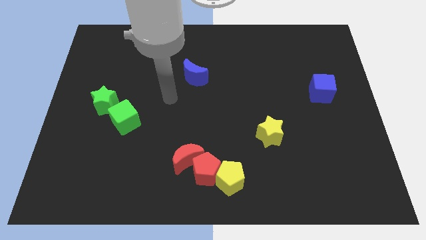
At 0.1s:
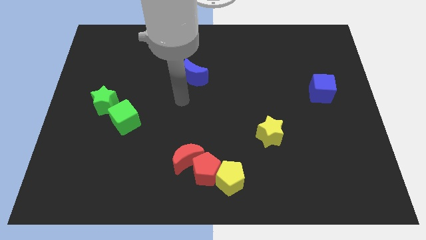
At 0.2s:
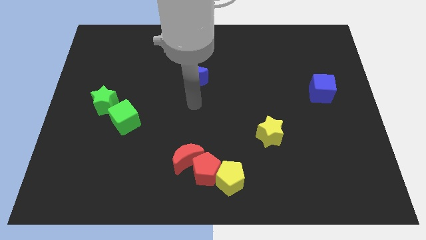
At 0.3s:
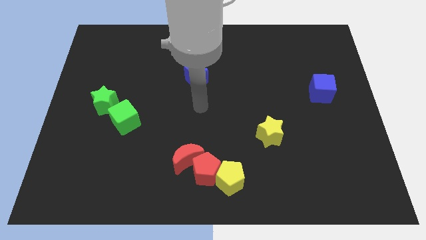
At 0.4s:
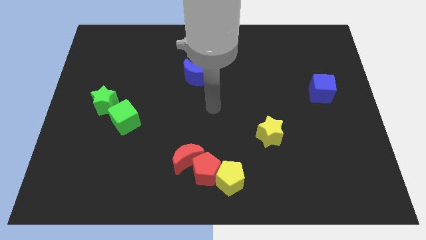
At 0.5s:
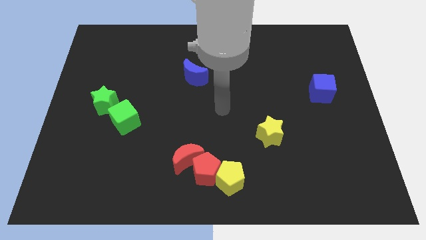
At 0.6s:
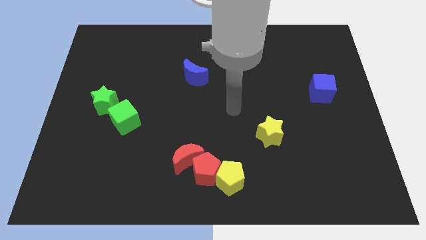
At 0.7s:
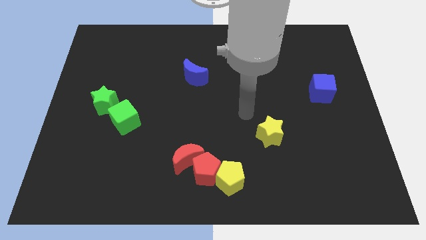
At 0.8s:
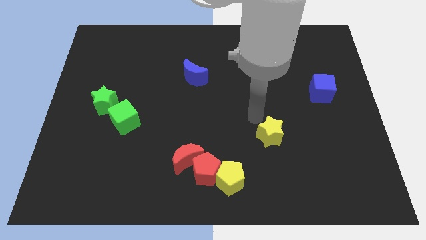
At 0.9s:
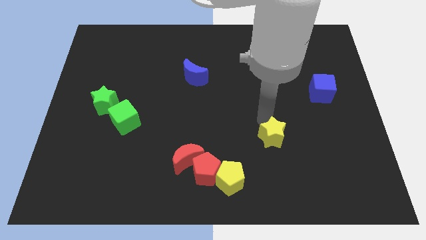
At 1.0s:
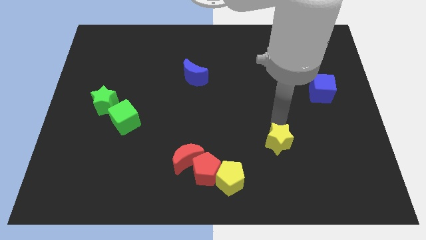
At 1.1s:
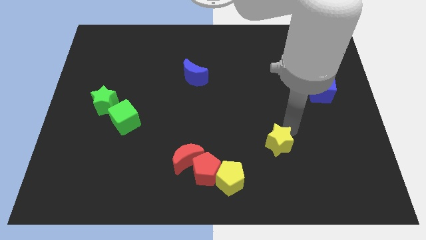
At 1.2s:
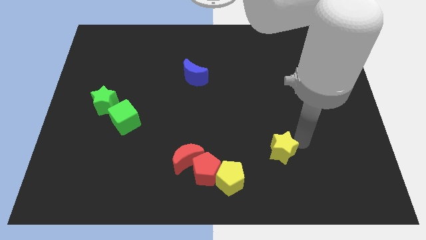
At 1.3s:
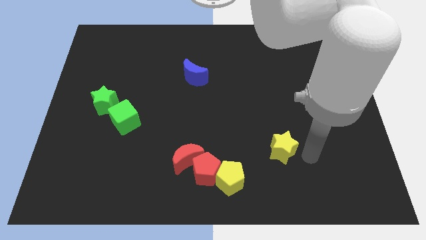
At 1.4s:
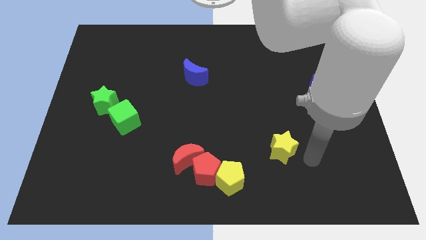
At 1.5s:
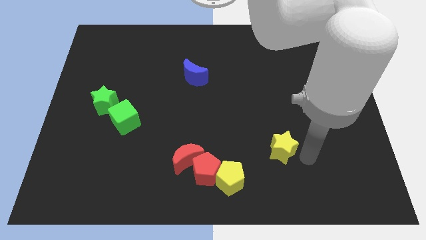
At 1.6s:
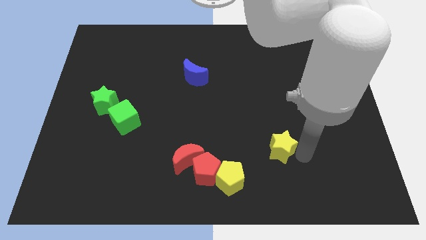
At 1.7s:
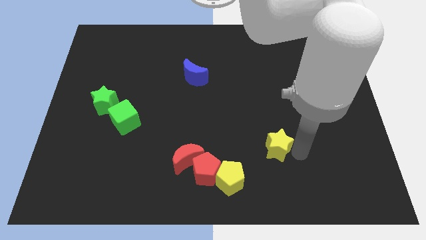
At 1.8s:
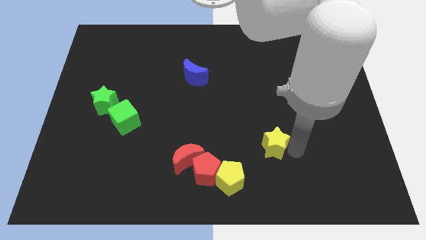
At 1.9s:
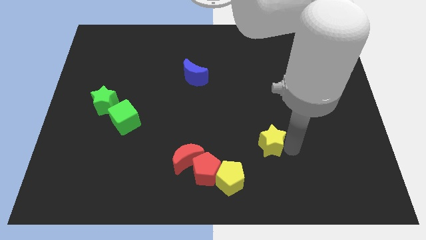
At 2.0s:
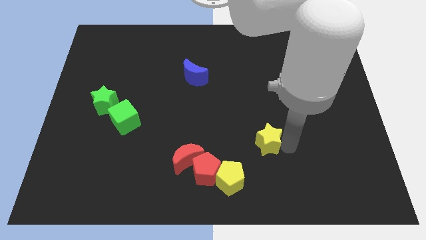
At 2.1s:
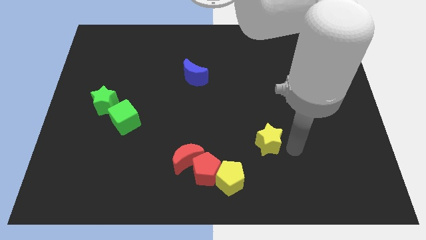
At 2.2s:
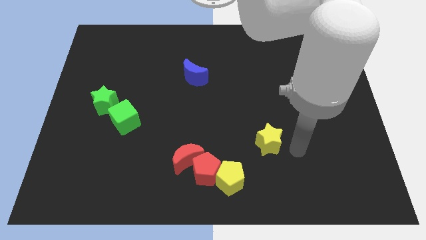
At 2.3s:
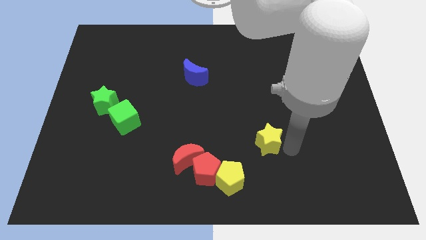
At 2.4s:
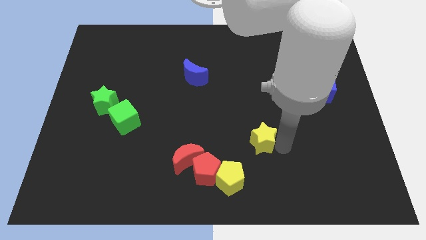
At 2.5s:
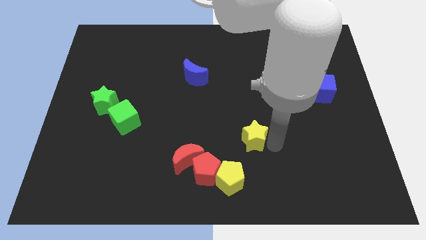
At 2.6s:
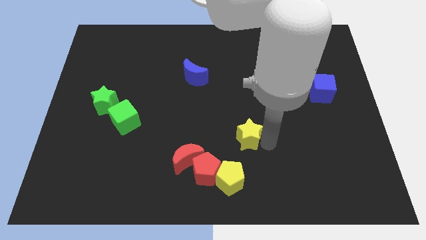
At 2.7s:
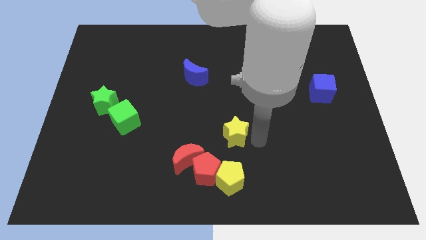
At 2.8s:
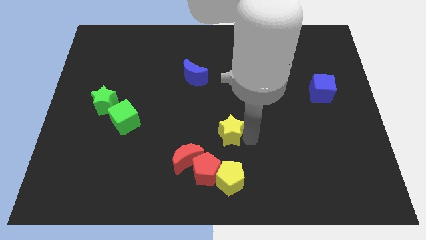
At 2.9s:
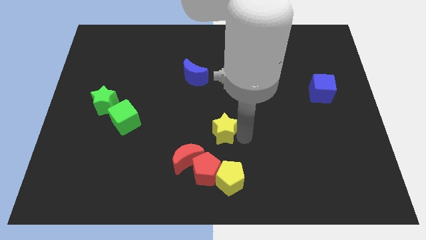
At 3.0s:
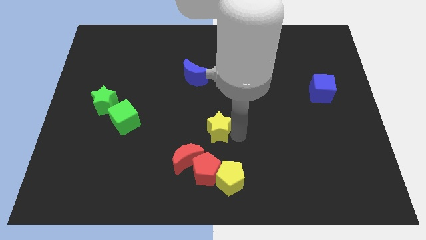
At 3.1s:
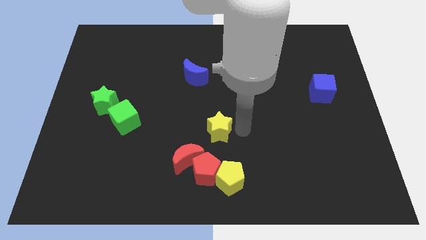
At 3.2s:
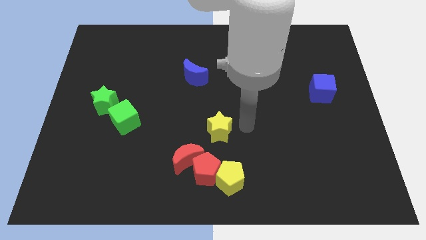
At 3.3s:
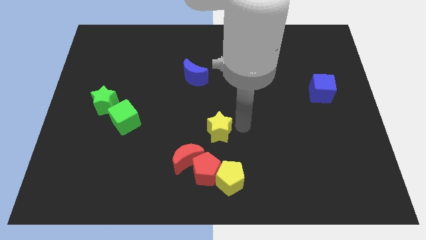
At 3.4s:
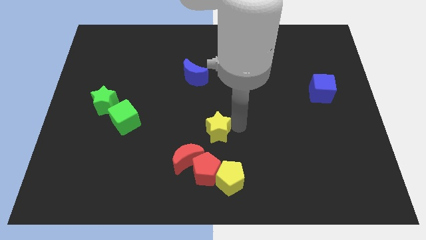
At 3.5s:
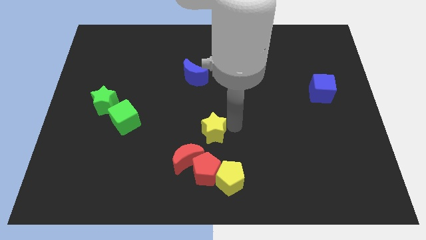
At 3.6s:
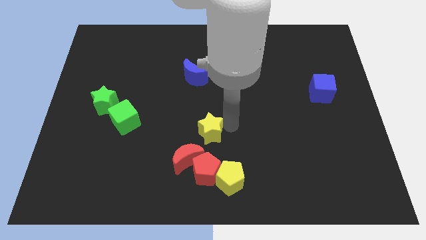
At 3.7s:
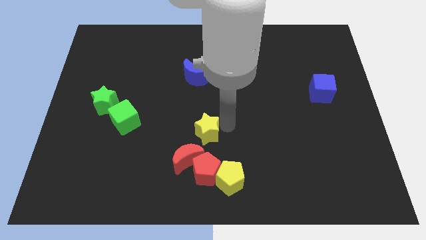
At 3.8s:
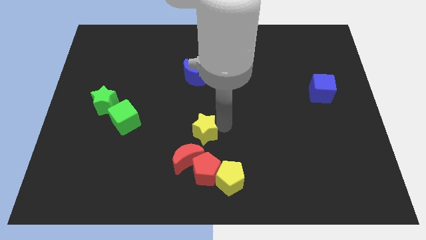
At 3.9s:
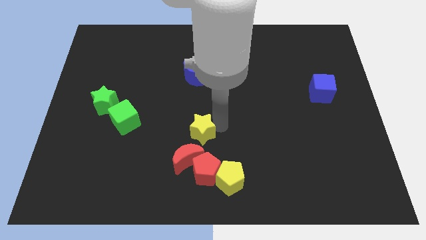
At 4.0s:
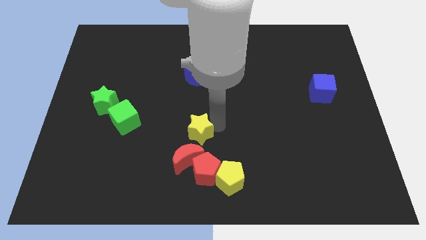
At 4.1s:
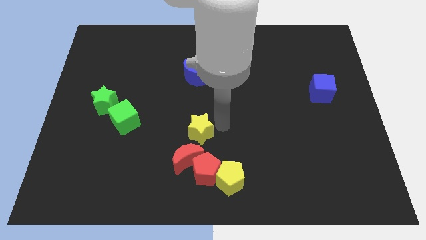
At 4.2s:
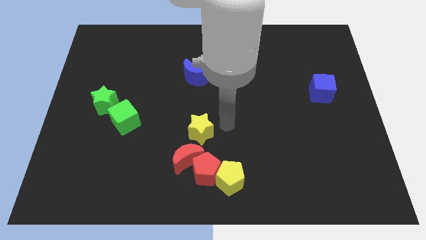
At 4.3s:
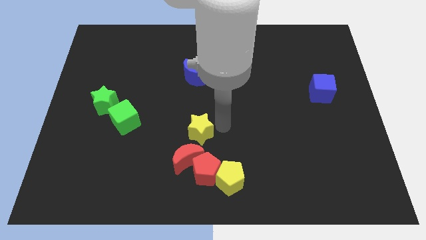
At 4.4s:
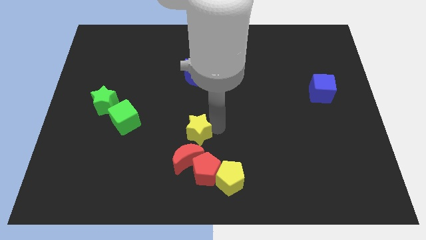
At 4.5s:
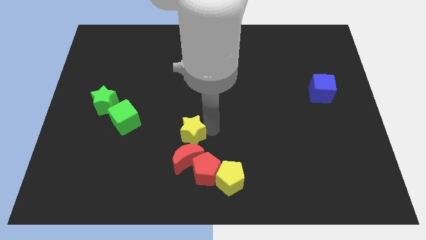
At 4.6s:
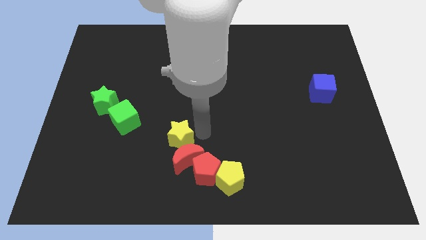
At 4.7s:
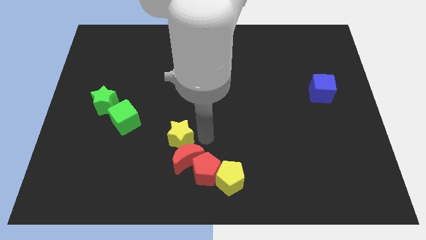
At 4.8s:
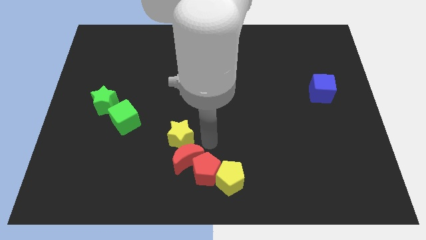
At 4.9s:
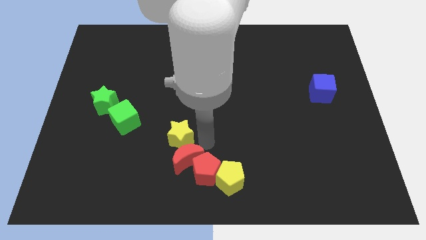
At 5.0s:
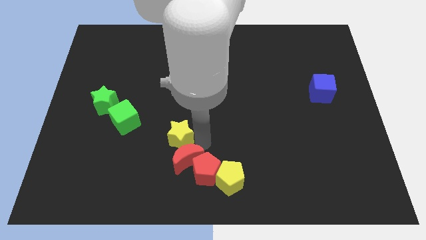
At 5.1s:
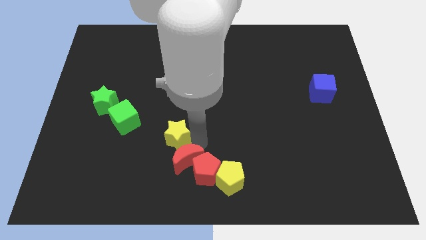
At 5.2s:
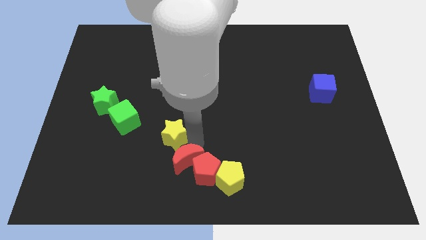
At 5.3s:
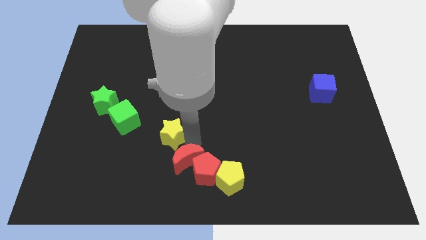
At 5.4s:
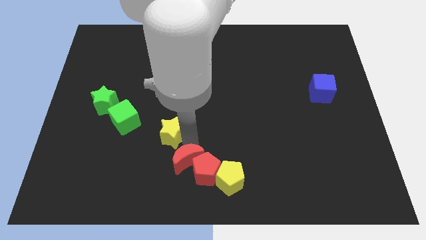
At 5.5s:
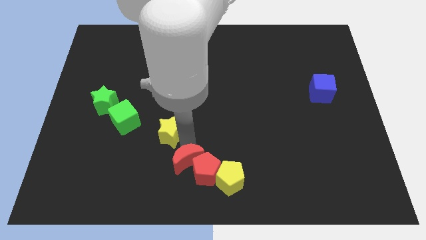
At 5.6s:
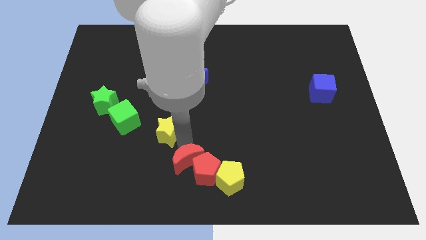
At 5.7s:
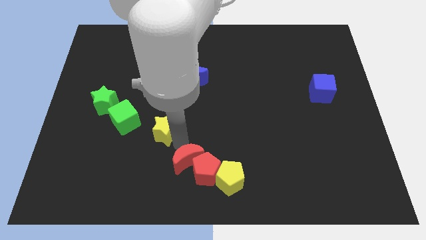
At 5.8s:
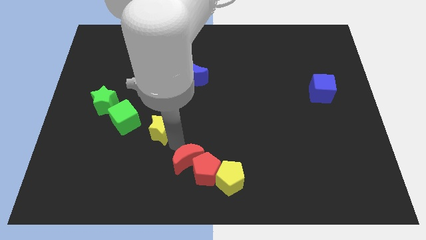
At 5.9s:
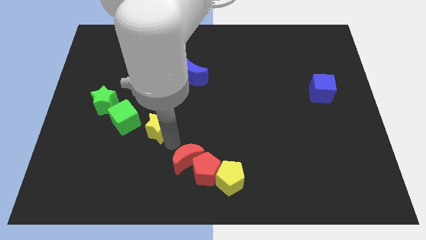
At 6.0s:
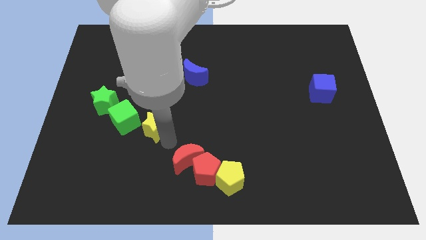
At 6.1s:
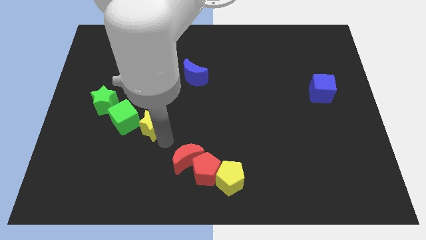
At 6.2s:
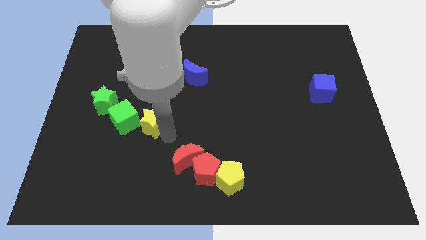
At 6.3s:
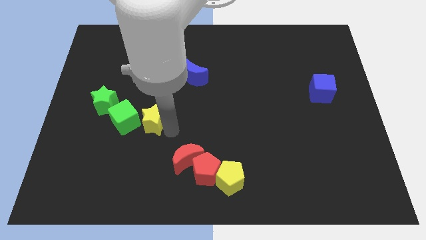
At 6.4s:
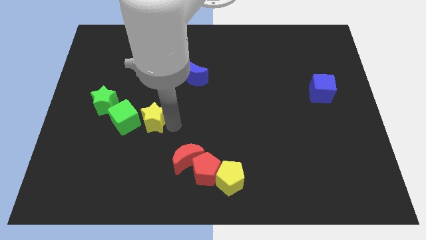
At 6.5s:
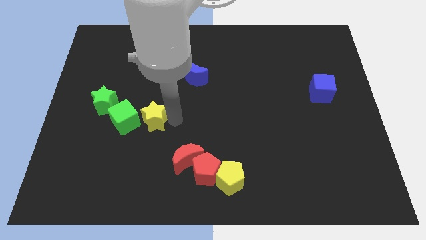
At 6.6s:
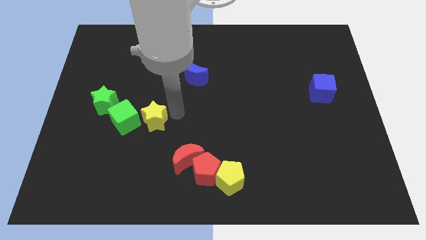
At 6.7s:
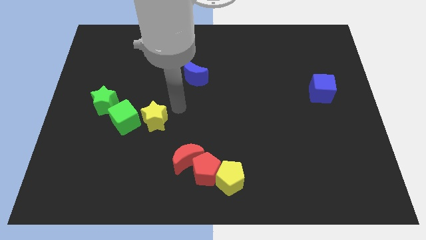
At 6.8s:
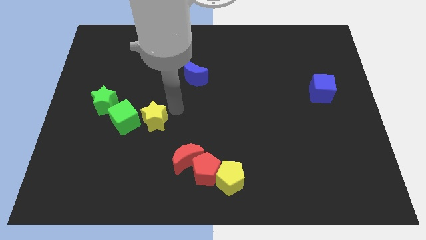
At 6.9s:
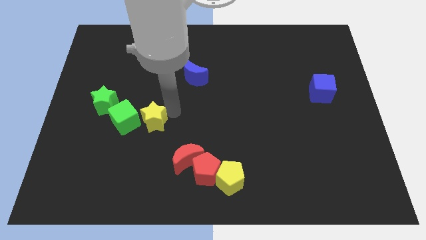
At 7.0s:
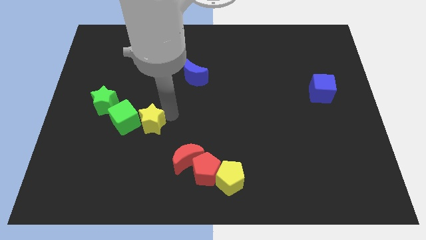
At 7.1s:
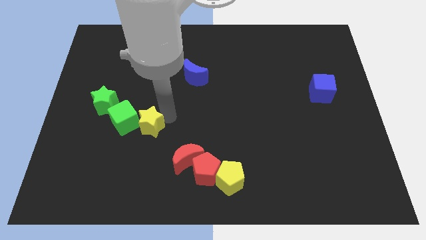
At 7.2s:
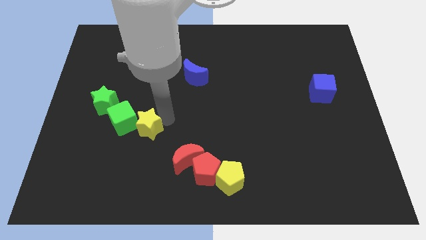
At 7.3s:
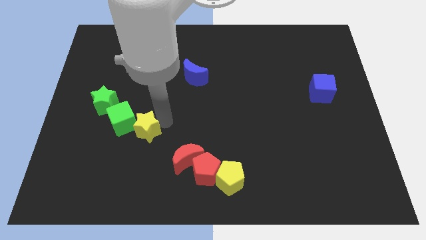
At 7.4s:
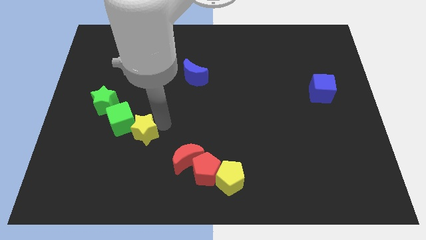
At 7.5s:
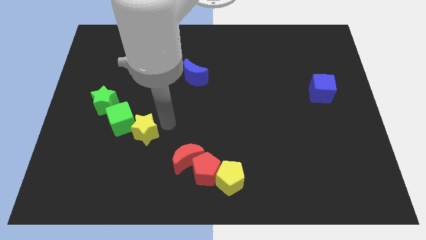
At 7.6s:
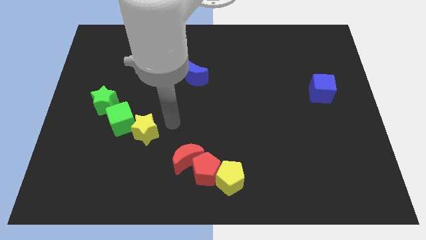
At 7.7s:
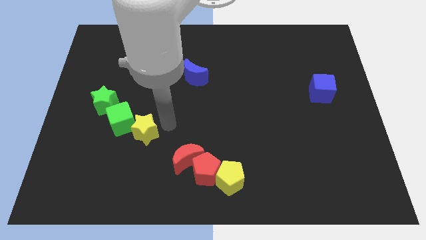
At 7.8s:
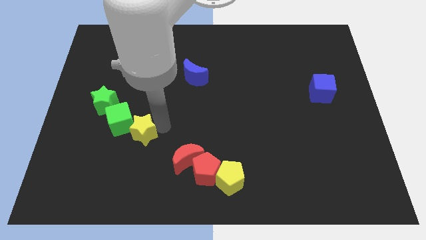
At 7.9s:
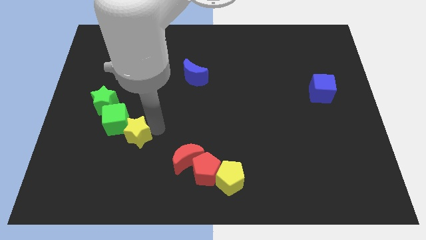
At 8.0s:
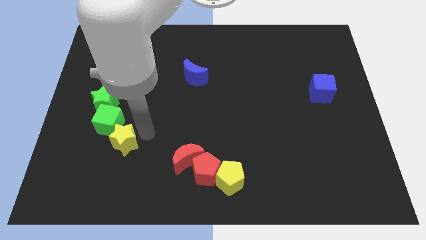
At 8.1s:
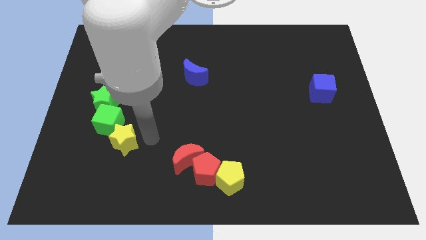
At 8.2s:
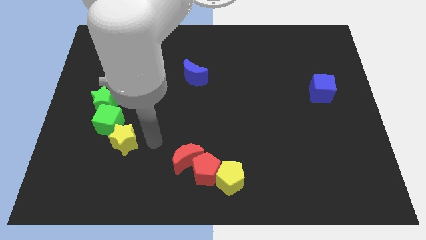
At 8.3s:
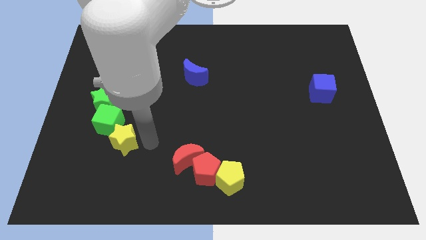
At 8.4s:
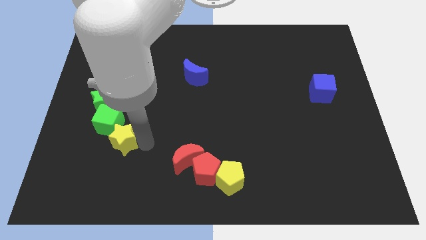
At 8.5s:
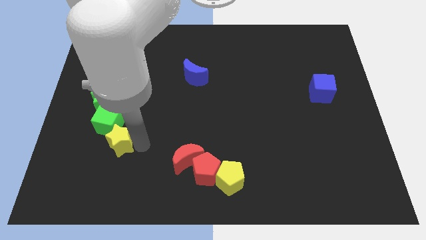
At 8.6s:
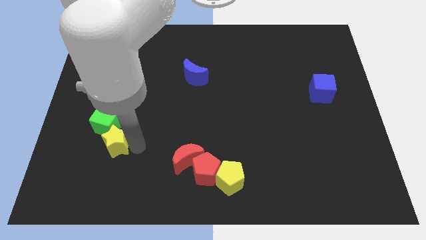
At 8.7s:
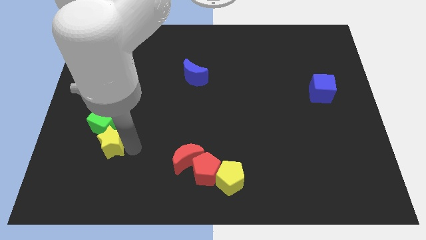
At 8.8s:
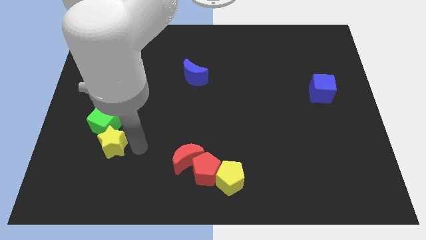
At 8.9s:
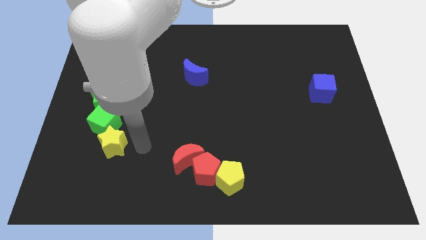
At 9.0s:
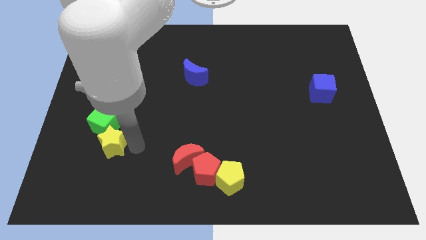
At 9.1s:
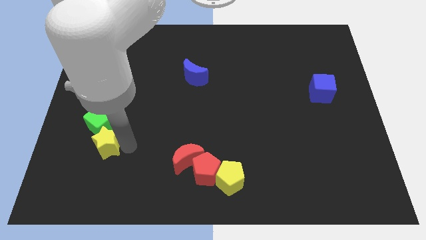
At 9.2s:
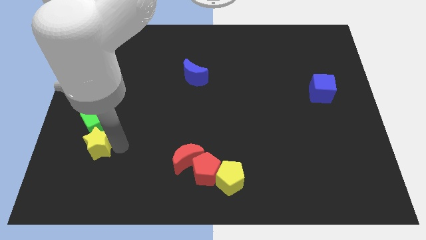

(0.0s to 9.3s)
put the yellow star to the bottom left of the green cube
